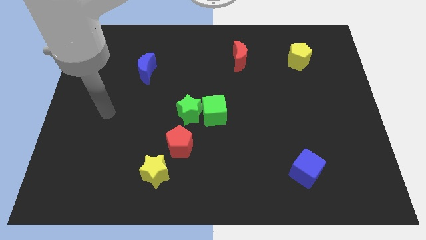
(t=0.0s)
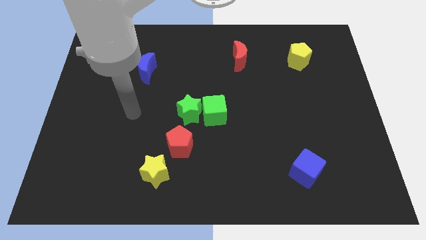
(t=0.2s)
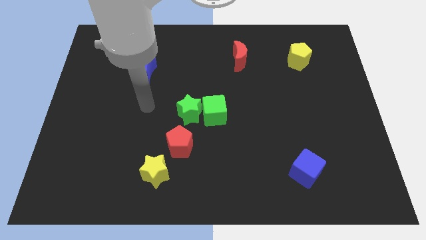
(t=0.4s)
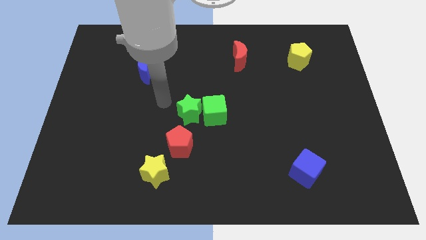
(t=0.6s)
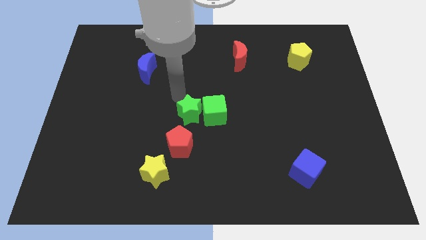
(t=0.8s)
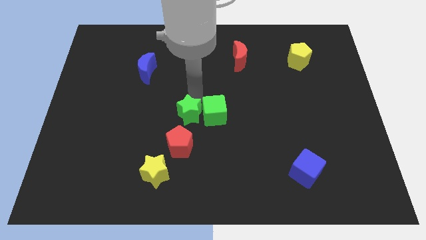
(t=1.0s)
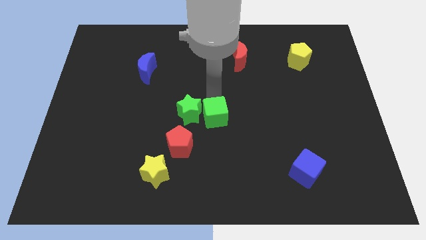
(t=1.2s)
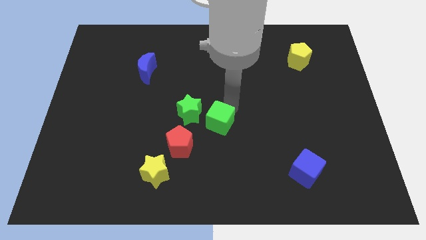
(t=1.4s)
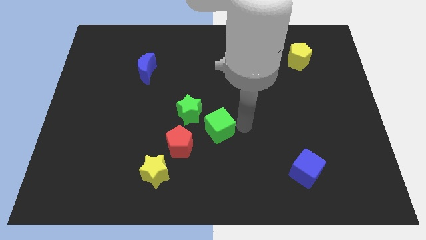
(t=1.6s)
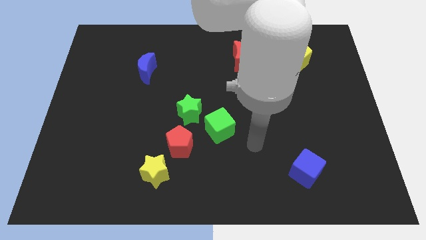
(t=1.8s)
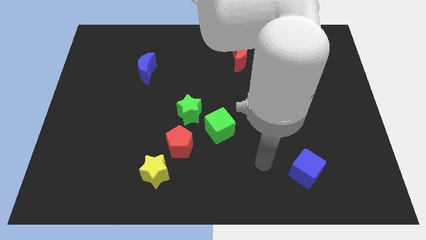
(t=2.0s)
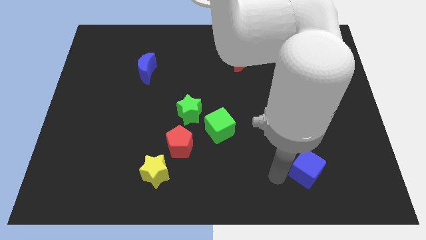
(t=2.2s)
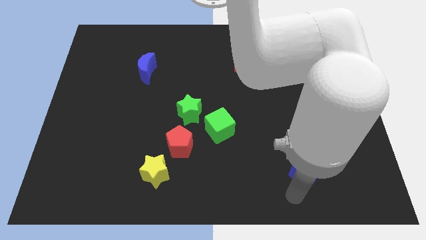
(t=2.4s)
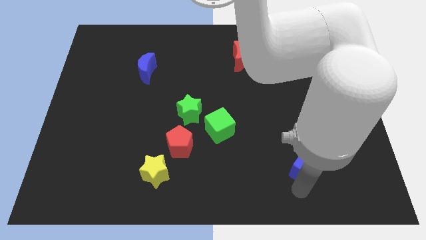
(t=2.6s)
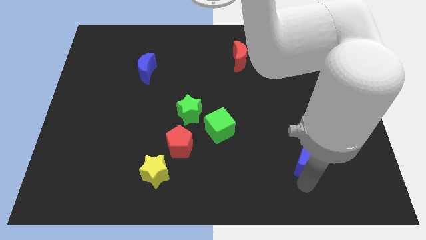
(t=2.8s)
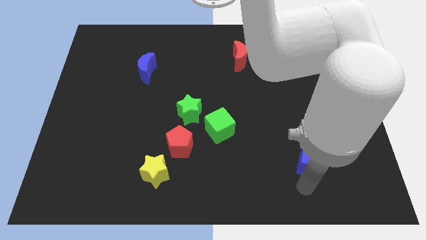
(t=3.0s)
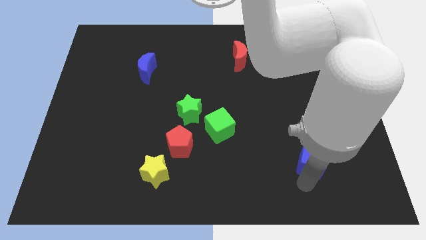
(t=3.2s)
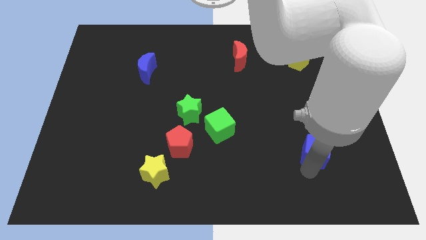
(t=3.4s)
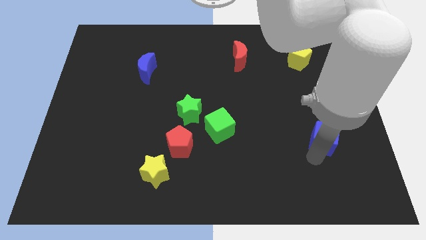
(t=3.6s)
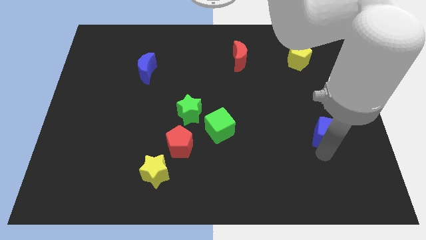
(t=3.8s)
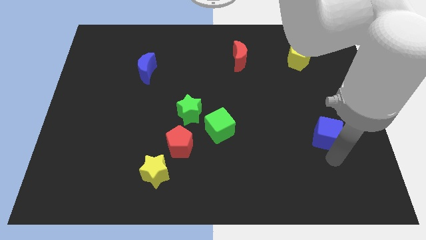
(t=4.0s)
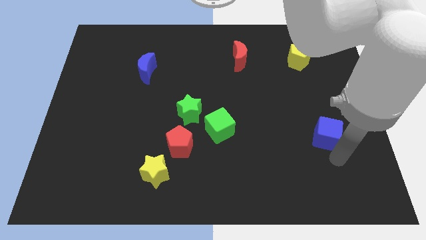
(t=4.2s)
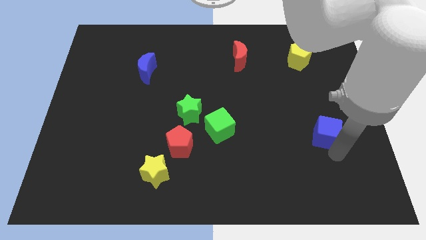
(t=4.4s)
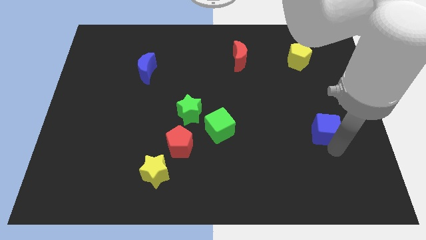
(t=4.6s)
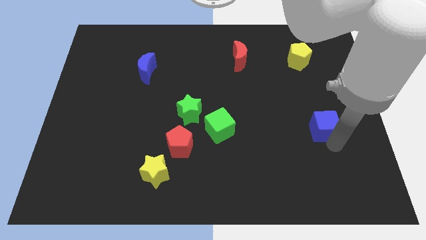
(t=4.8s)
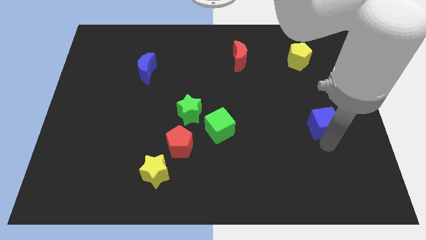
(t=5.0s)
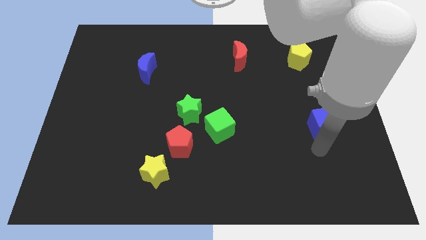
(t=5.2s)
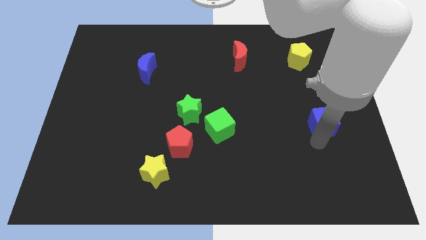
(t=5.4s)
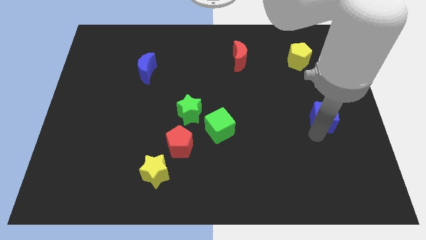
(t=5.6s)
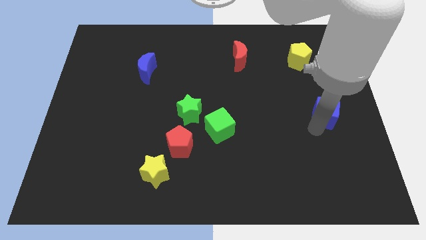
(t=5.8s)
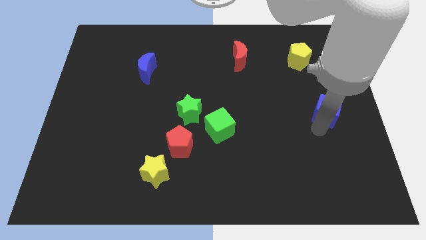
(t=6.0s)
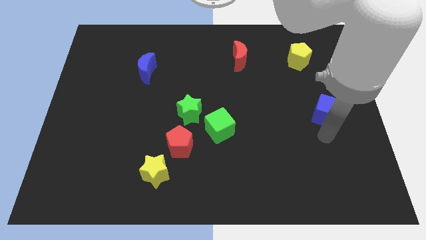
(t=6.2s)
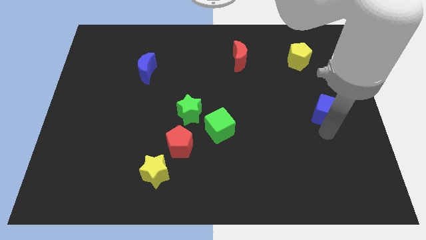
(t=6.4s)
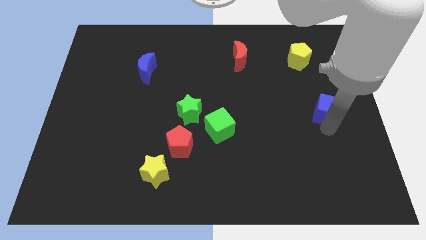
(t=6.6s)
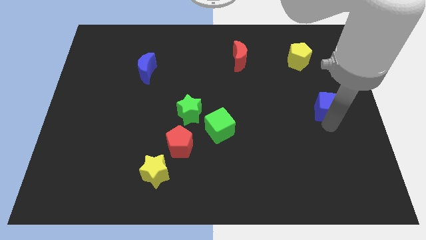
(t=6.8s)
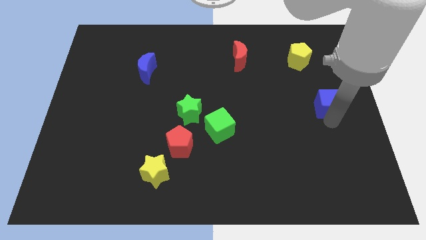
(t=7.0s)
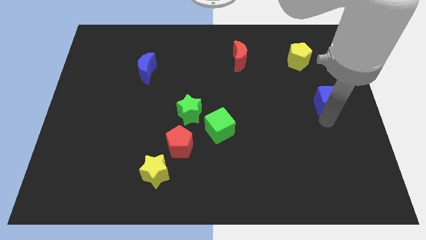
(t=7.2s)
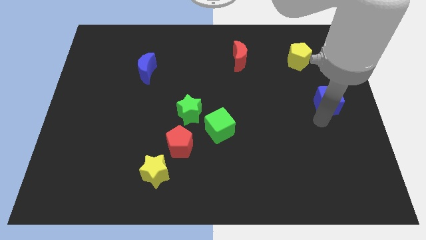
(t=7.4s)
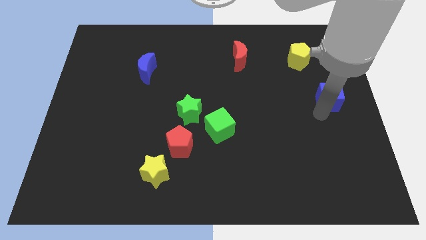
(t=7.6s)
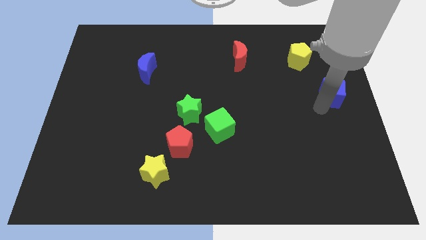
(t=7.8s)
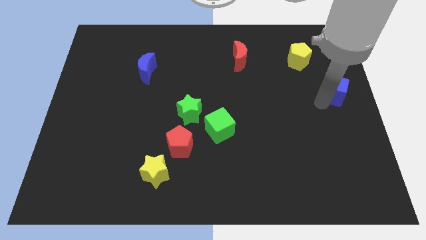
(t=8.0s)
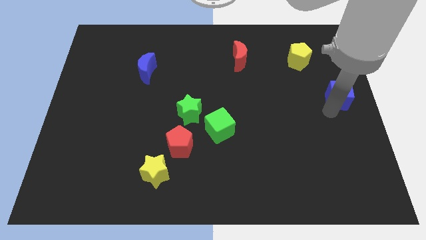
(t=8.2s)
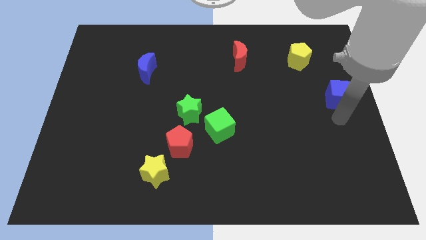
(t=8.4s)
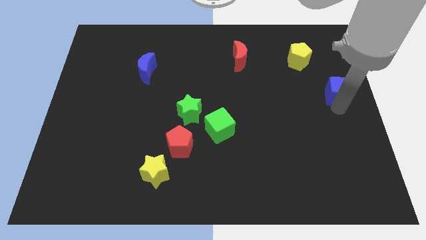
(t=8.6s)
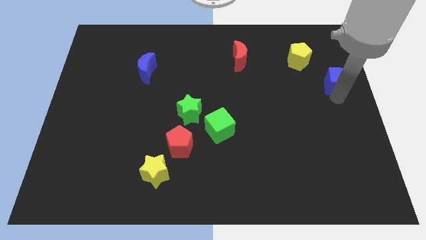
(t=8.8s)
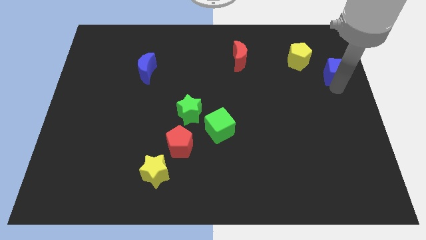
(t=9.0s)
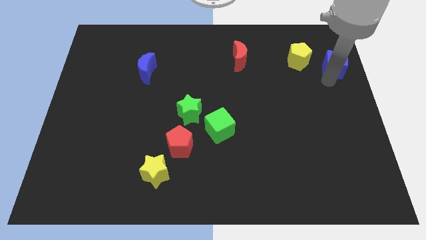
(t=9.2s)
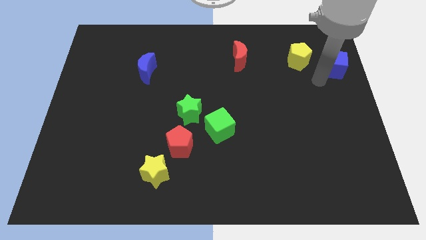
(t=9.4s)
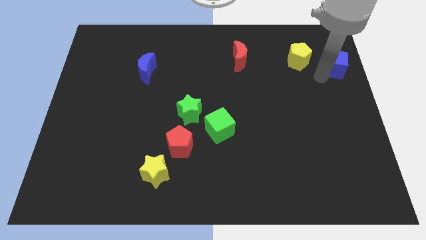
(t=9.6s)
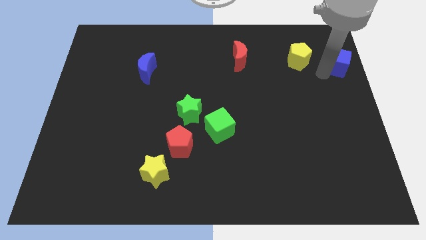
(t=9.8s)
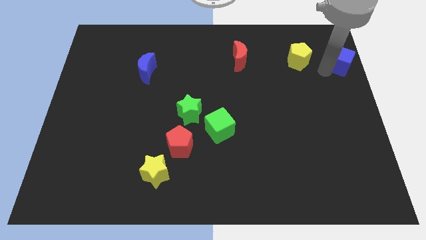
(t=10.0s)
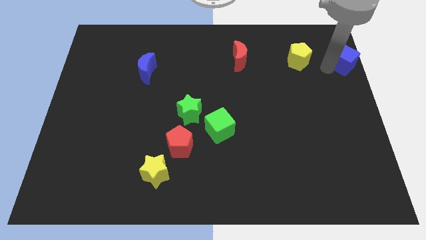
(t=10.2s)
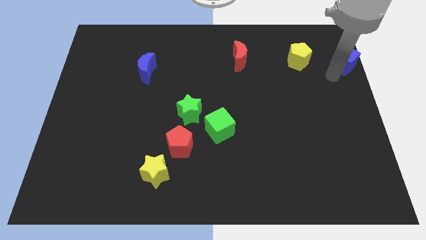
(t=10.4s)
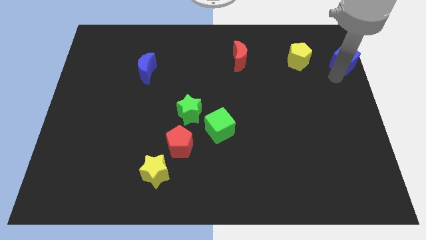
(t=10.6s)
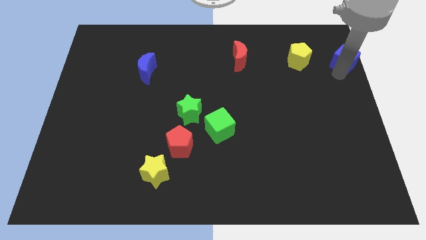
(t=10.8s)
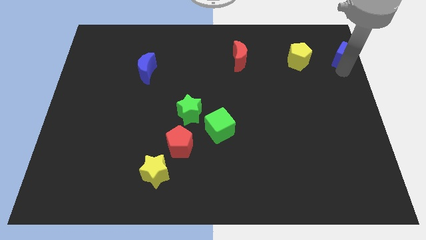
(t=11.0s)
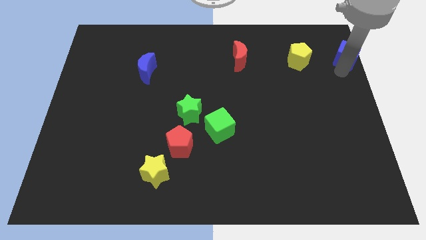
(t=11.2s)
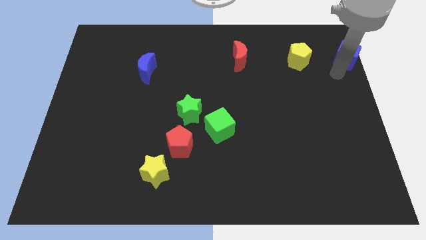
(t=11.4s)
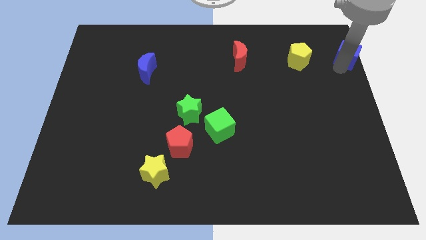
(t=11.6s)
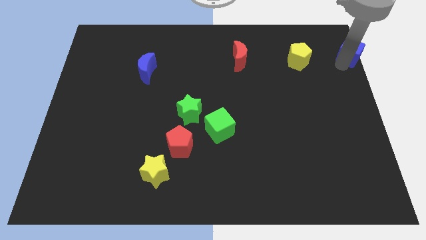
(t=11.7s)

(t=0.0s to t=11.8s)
push the blue cube to the top right

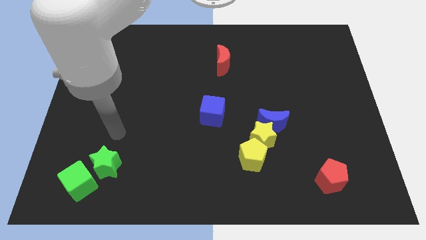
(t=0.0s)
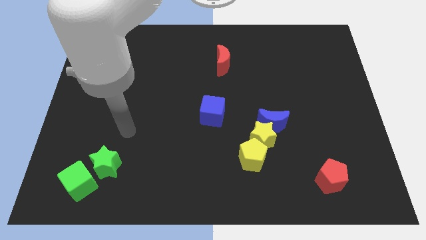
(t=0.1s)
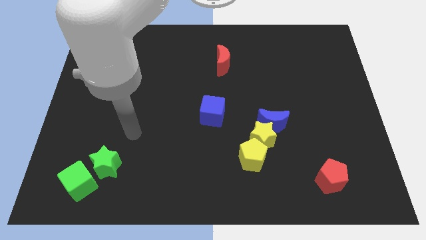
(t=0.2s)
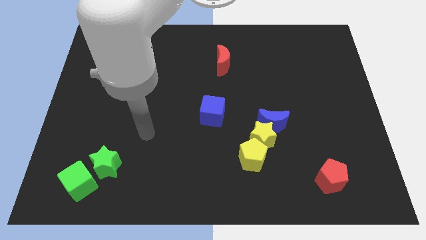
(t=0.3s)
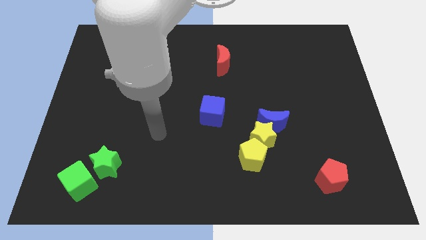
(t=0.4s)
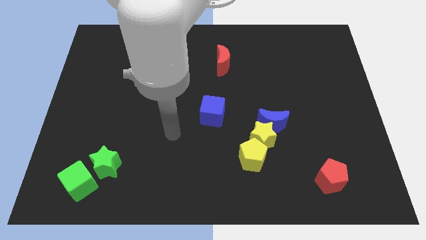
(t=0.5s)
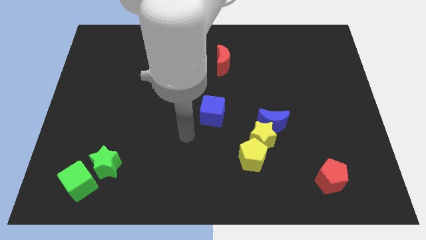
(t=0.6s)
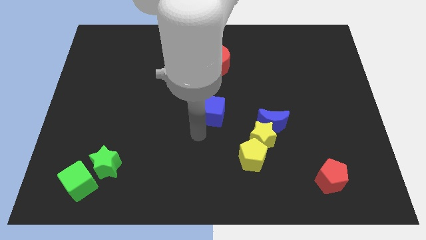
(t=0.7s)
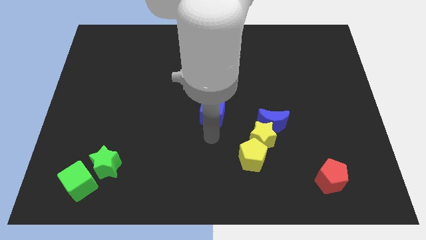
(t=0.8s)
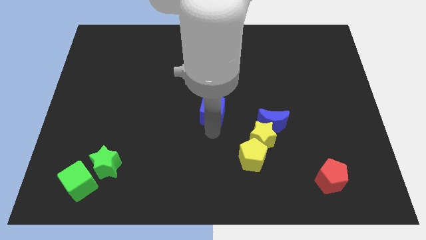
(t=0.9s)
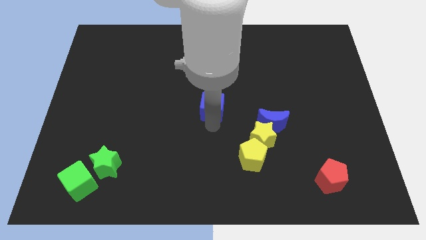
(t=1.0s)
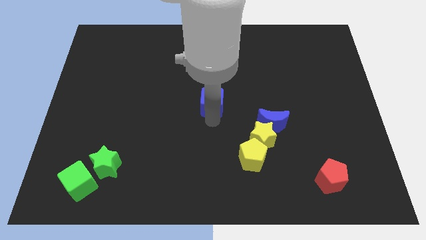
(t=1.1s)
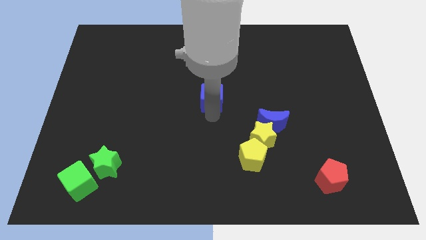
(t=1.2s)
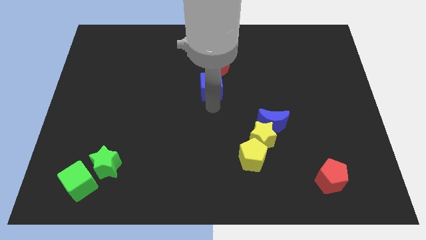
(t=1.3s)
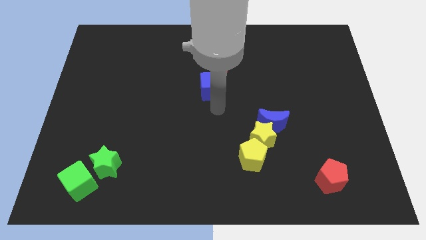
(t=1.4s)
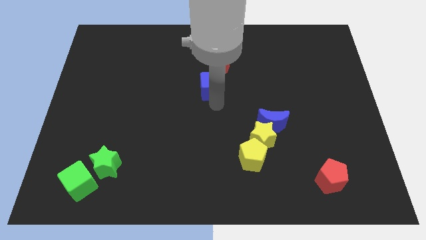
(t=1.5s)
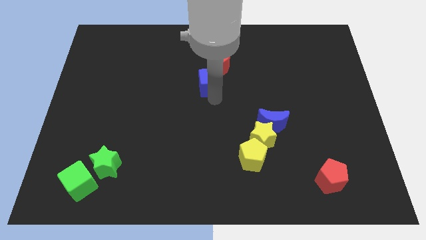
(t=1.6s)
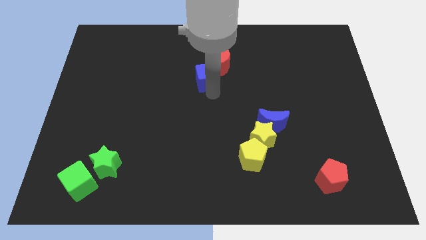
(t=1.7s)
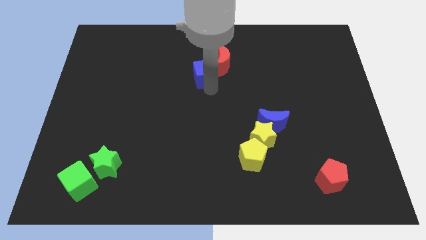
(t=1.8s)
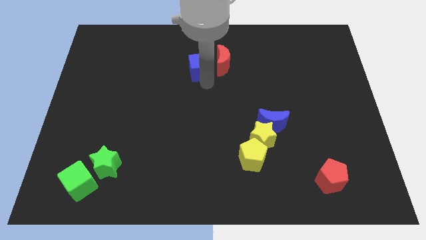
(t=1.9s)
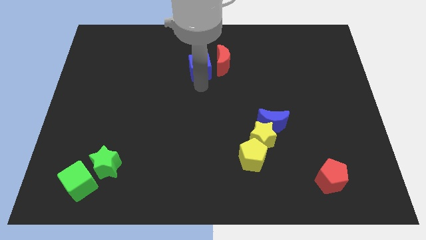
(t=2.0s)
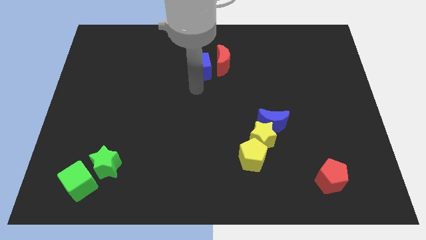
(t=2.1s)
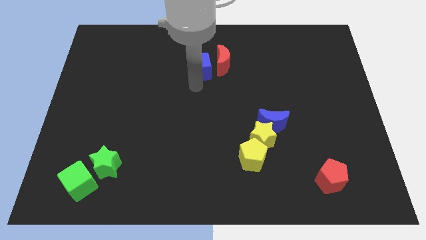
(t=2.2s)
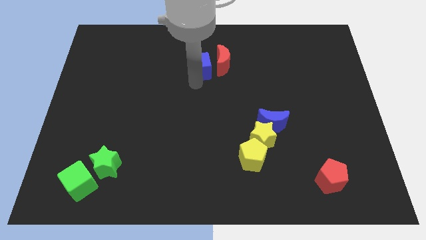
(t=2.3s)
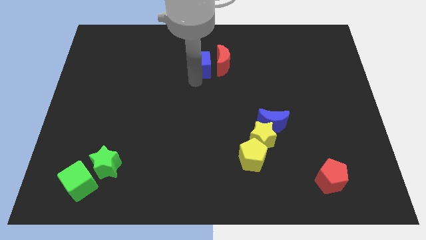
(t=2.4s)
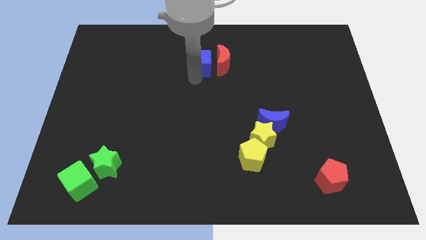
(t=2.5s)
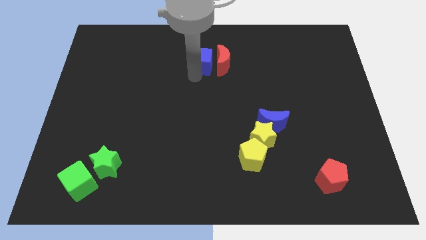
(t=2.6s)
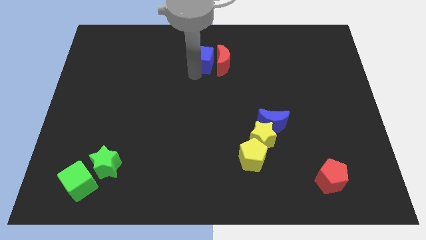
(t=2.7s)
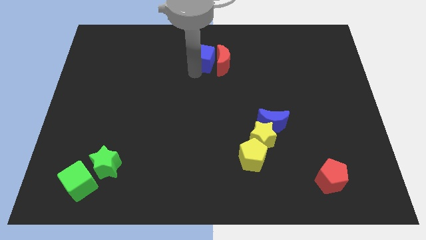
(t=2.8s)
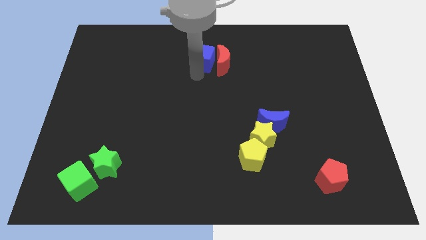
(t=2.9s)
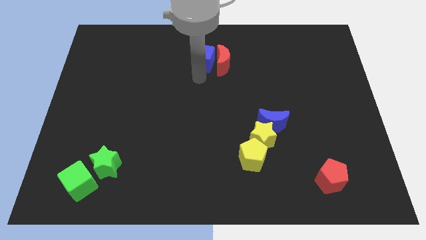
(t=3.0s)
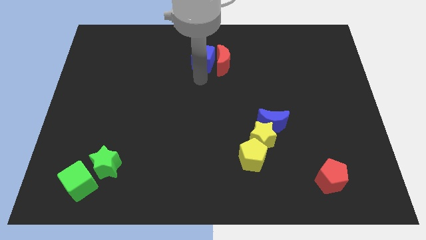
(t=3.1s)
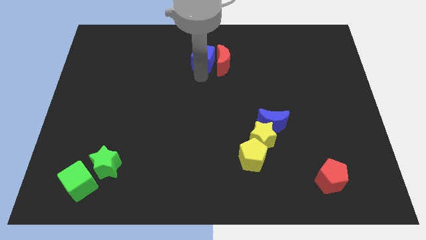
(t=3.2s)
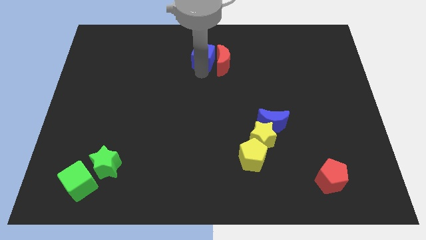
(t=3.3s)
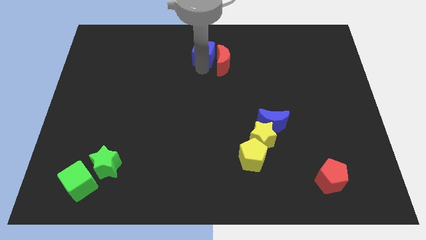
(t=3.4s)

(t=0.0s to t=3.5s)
slide the blue cube to the top
